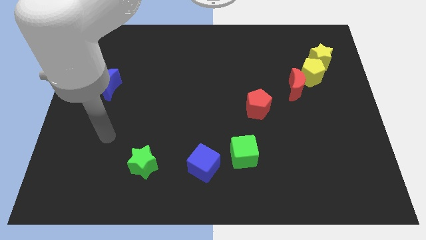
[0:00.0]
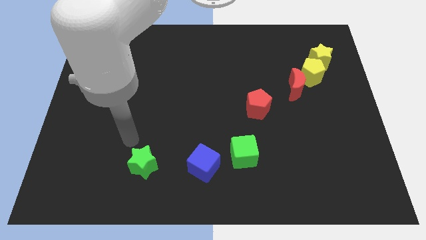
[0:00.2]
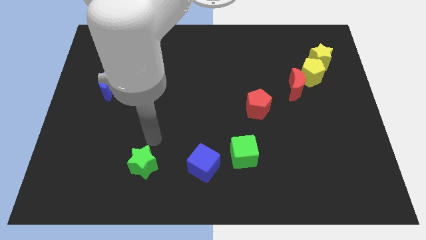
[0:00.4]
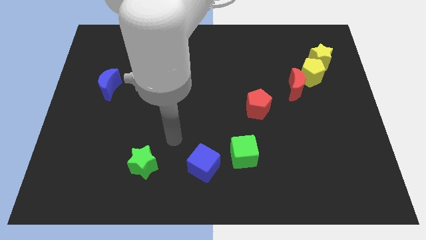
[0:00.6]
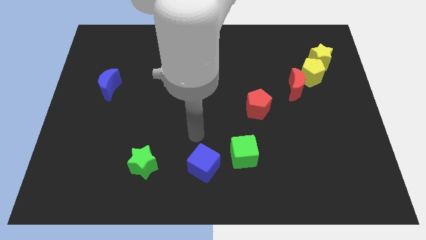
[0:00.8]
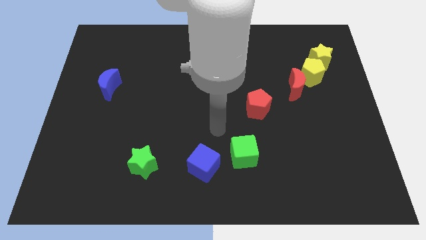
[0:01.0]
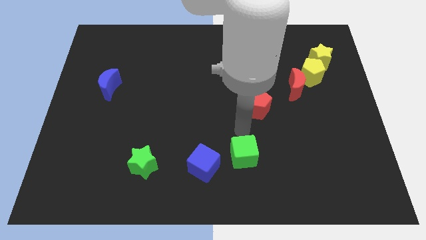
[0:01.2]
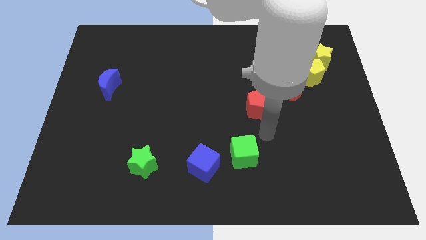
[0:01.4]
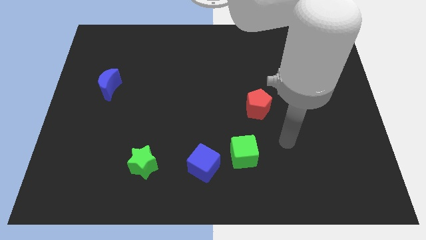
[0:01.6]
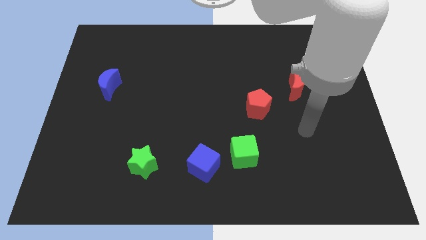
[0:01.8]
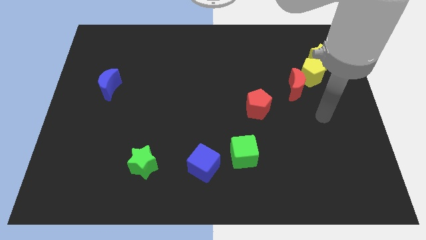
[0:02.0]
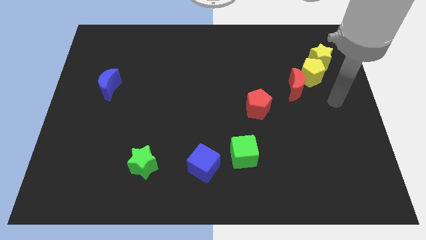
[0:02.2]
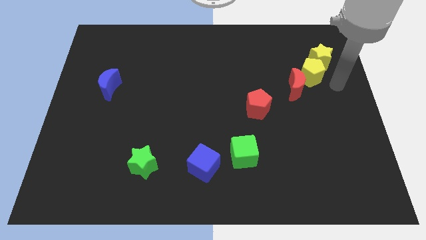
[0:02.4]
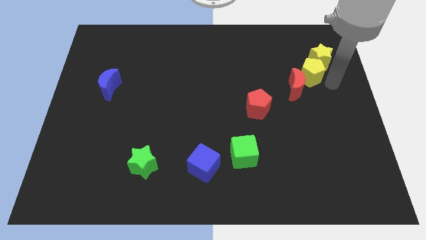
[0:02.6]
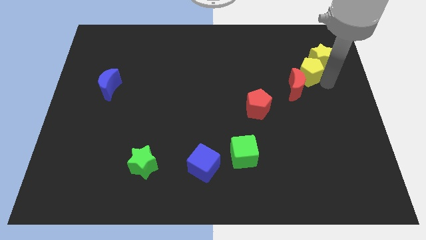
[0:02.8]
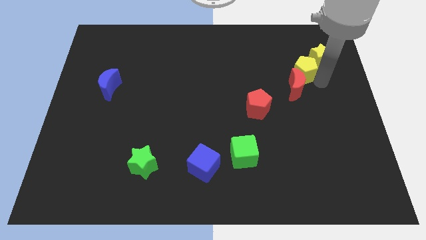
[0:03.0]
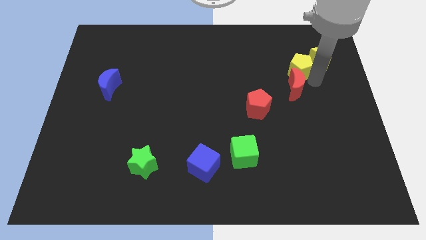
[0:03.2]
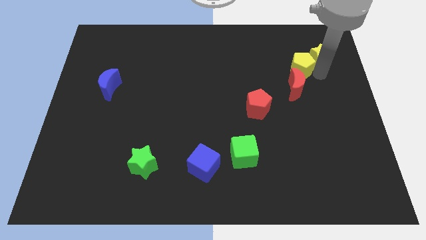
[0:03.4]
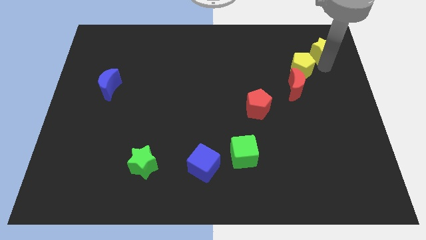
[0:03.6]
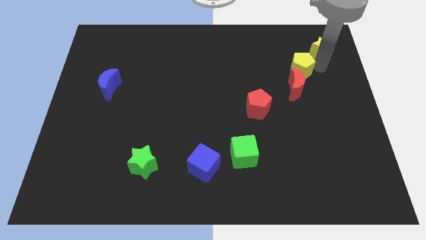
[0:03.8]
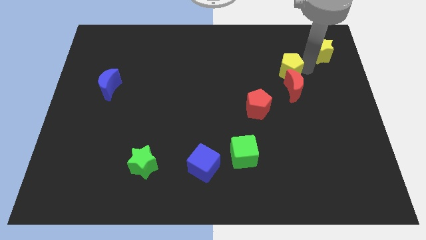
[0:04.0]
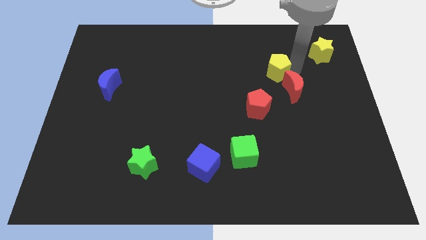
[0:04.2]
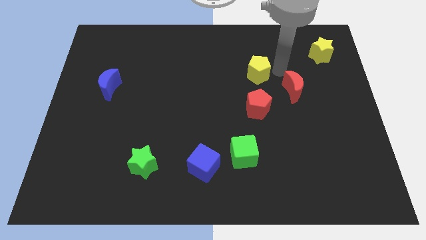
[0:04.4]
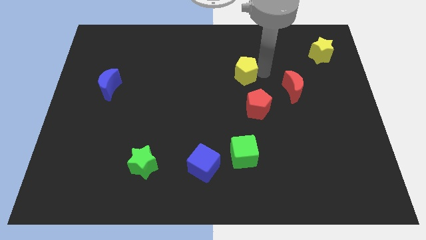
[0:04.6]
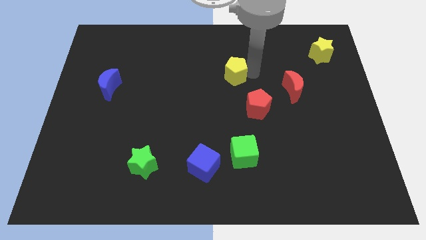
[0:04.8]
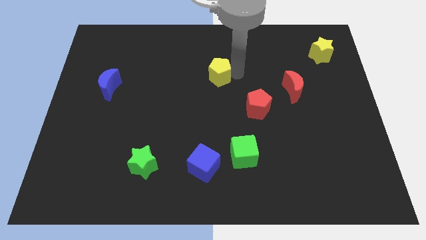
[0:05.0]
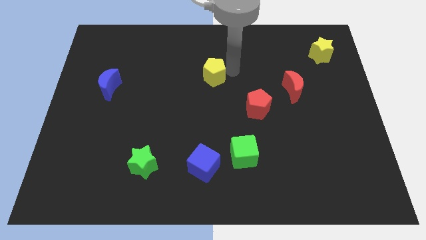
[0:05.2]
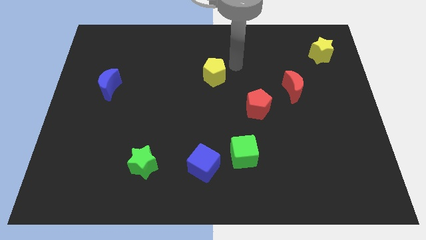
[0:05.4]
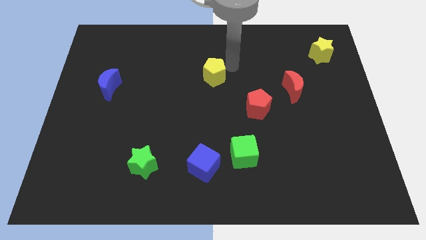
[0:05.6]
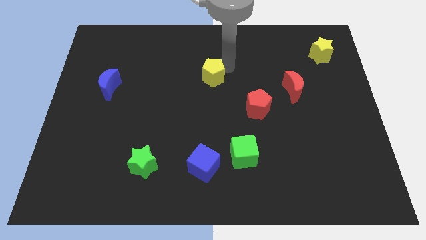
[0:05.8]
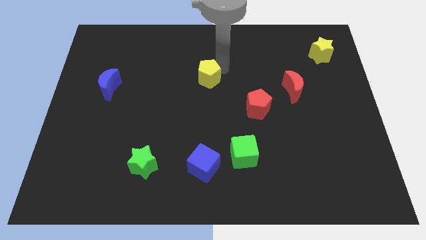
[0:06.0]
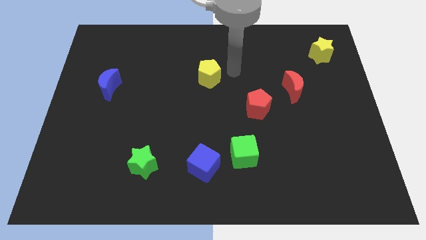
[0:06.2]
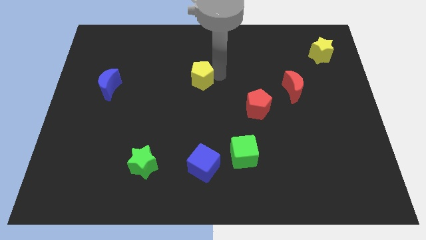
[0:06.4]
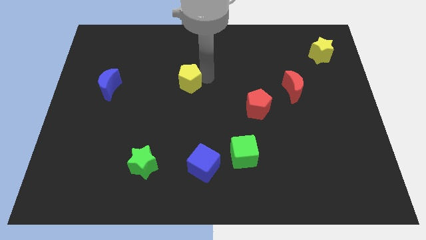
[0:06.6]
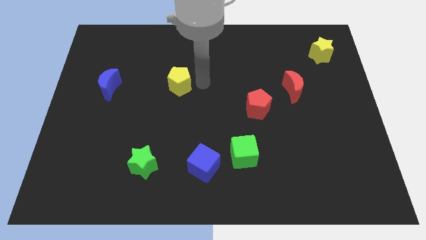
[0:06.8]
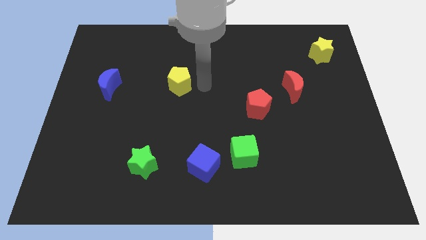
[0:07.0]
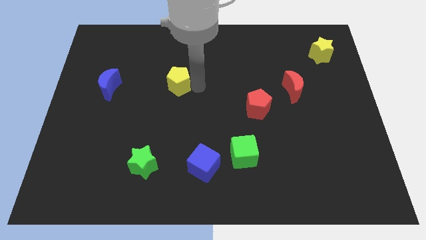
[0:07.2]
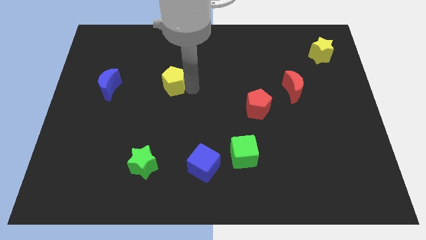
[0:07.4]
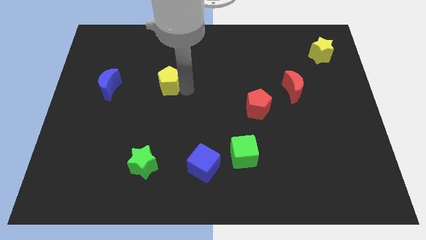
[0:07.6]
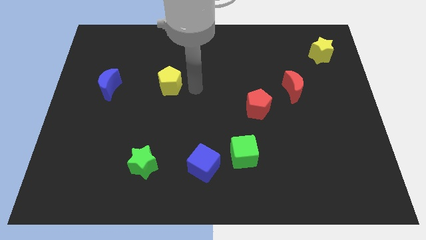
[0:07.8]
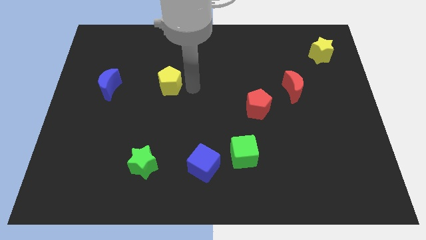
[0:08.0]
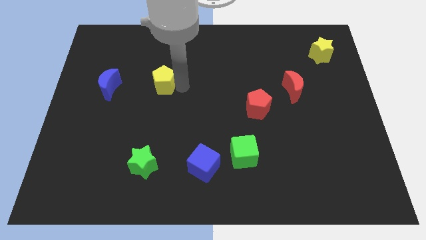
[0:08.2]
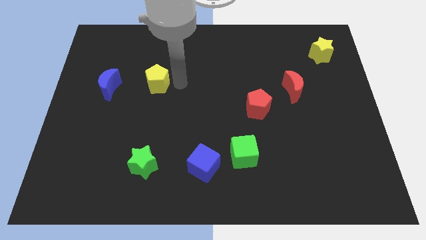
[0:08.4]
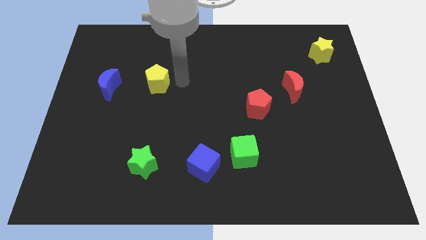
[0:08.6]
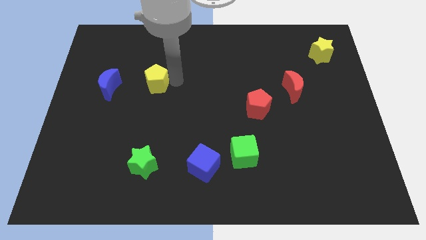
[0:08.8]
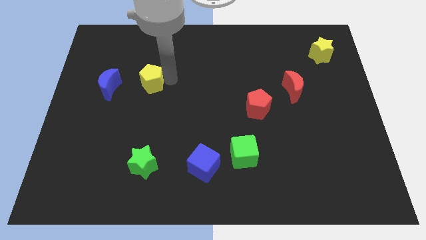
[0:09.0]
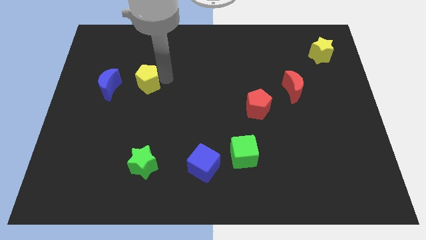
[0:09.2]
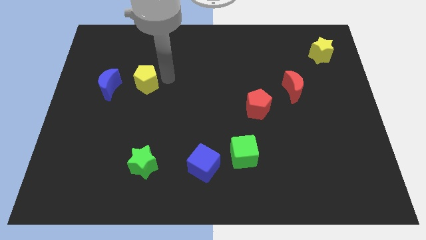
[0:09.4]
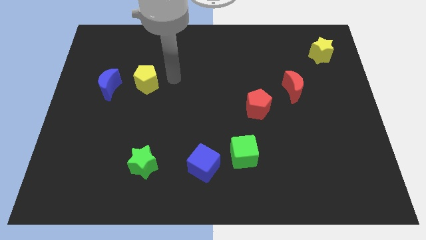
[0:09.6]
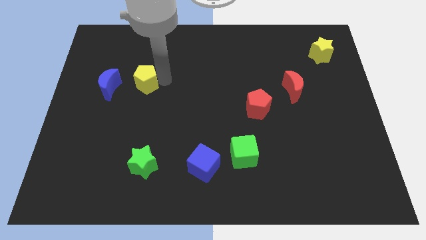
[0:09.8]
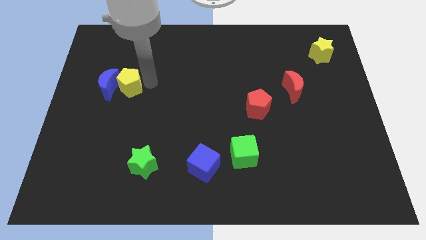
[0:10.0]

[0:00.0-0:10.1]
move the yellow pentagon to the blue moon

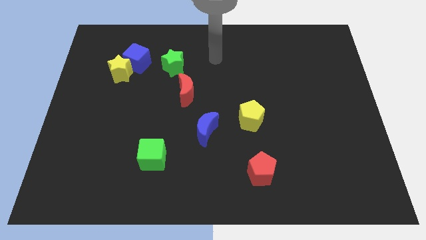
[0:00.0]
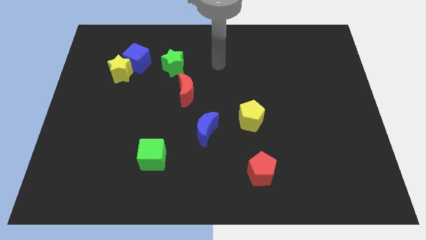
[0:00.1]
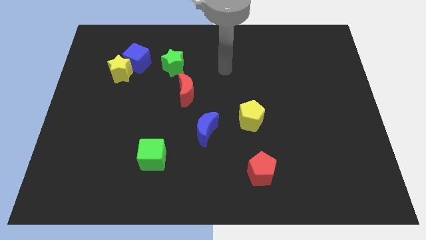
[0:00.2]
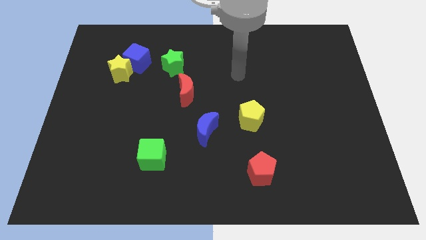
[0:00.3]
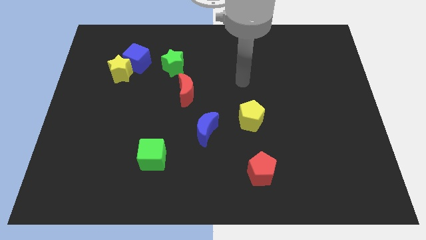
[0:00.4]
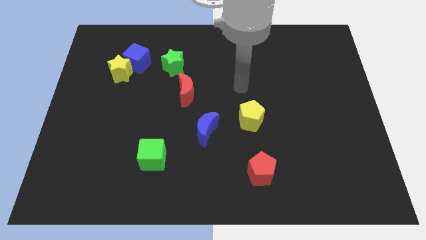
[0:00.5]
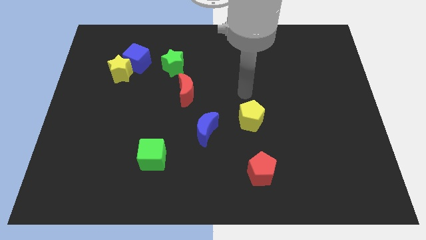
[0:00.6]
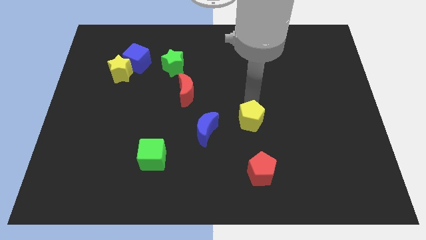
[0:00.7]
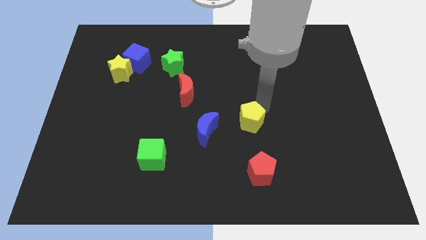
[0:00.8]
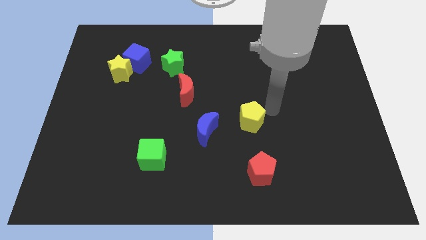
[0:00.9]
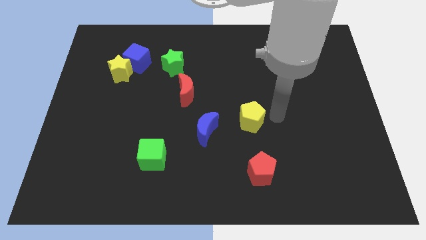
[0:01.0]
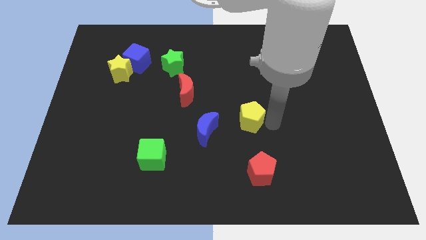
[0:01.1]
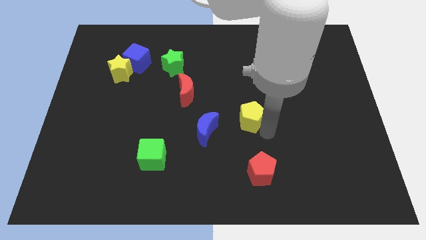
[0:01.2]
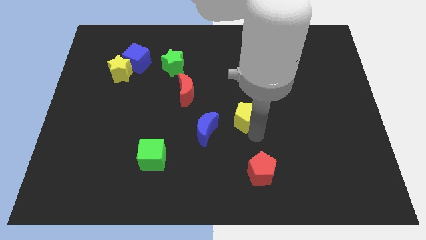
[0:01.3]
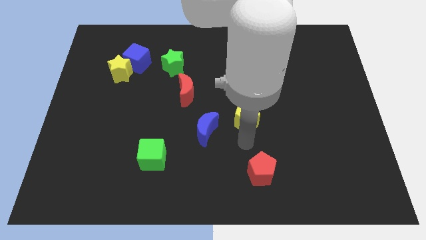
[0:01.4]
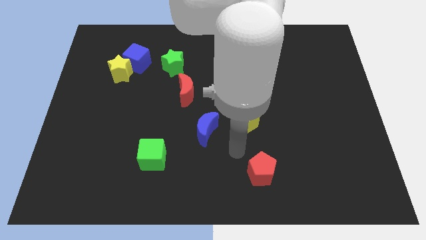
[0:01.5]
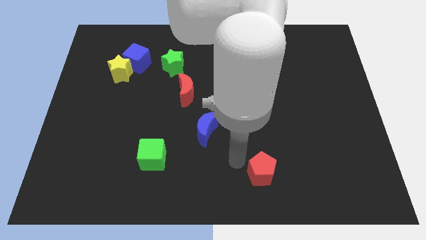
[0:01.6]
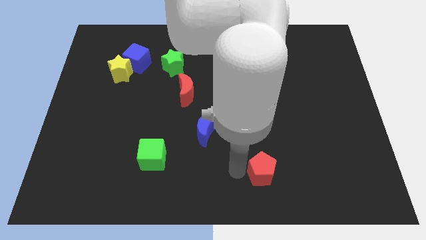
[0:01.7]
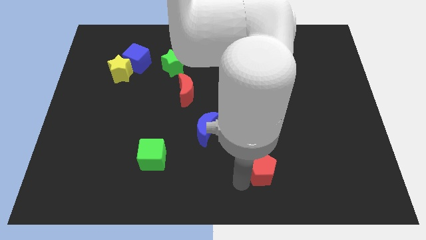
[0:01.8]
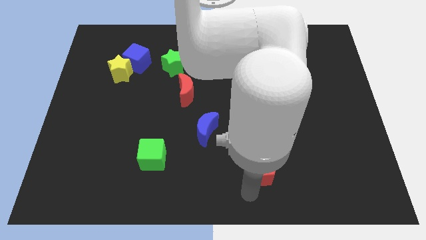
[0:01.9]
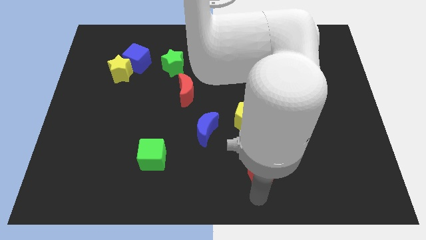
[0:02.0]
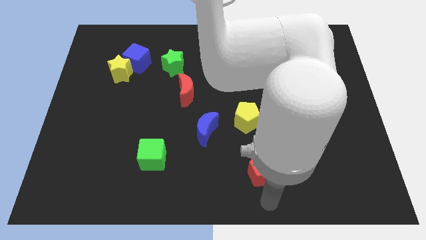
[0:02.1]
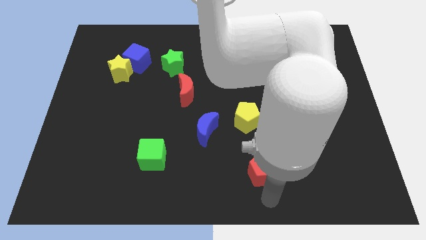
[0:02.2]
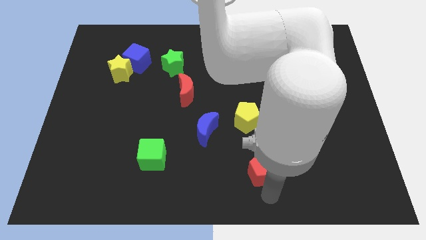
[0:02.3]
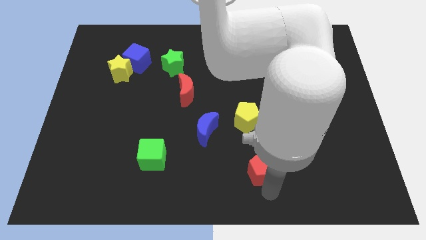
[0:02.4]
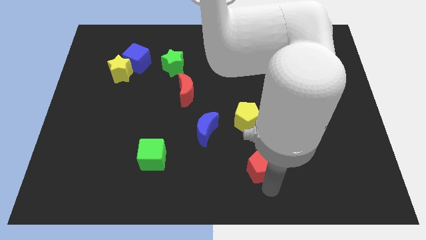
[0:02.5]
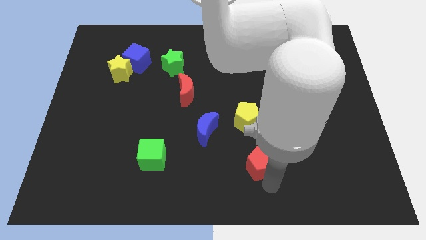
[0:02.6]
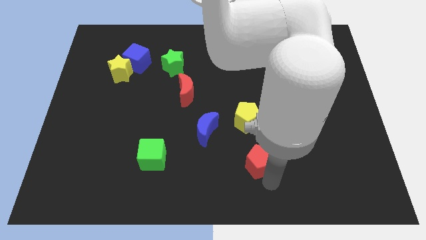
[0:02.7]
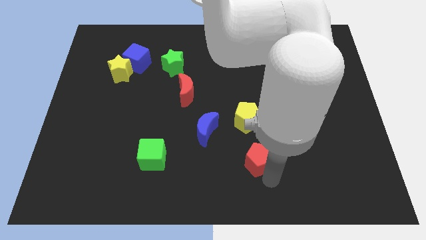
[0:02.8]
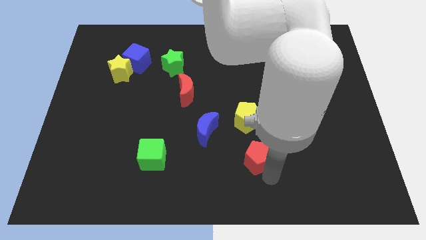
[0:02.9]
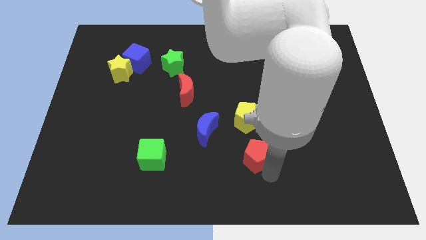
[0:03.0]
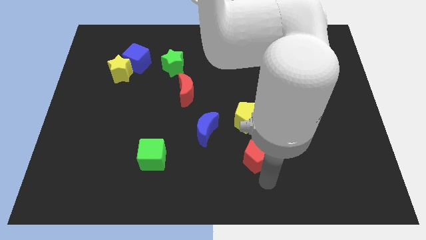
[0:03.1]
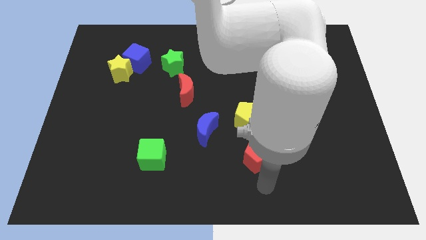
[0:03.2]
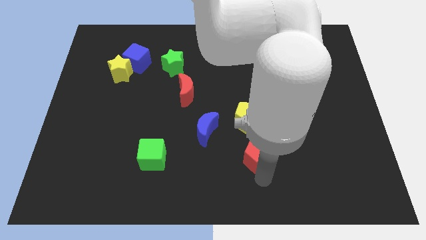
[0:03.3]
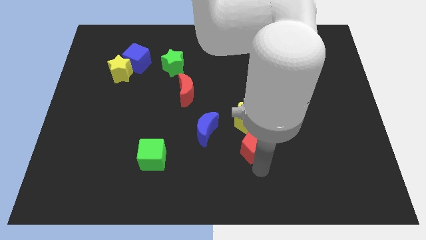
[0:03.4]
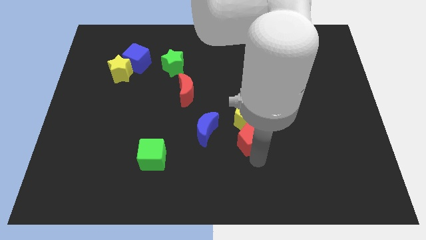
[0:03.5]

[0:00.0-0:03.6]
push the red pentagon to the yellow pentagon
